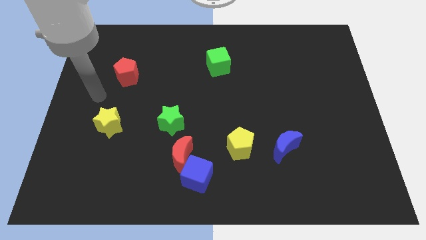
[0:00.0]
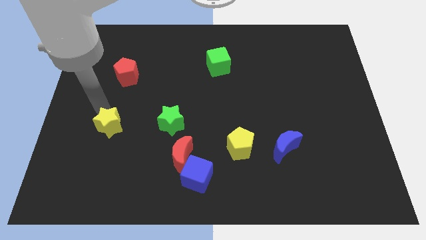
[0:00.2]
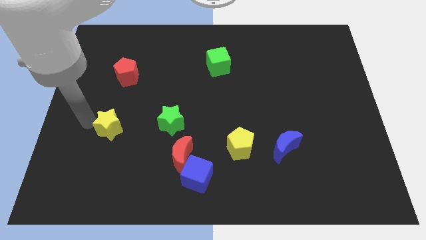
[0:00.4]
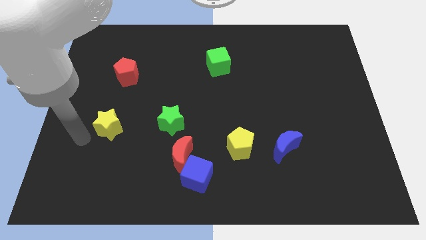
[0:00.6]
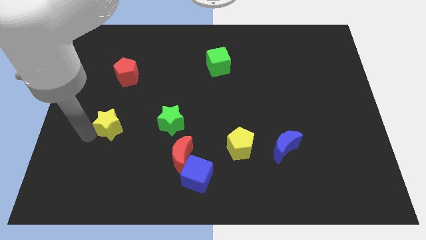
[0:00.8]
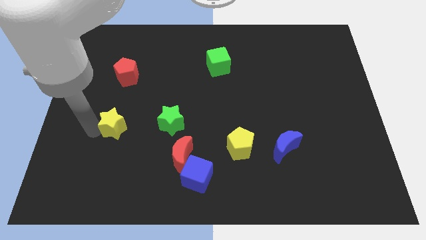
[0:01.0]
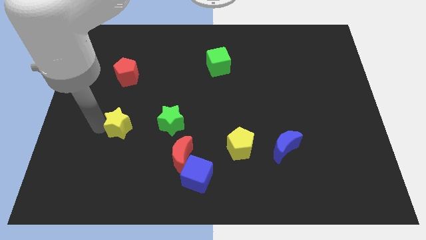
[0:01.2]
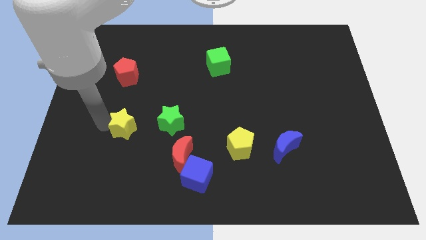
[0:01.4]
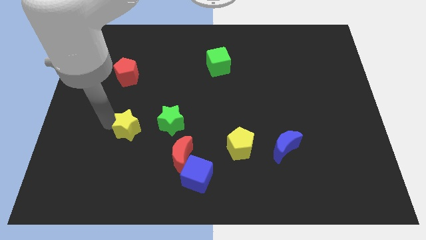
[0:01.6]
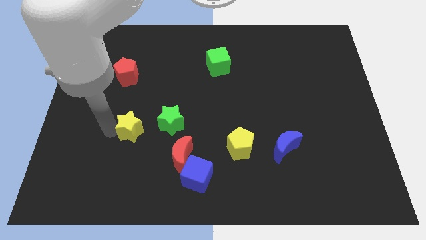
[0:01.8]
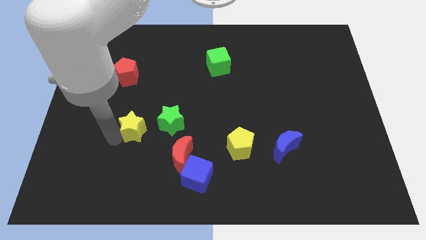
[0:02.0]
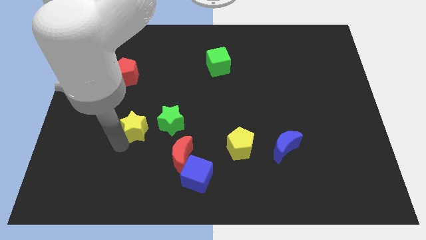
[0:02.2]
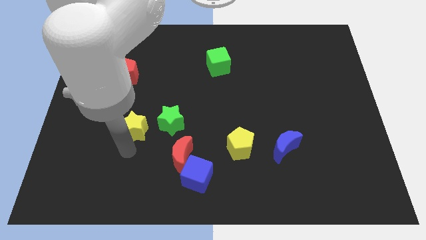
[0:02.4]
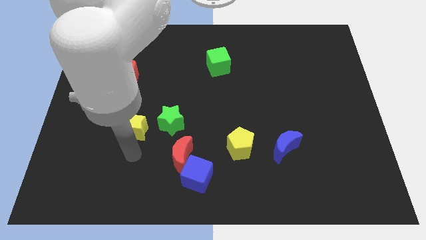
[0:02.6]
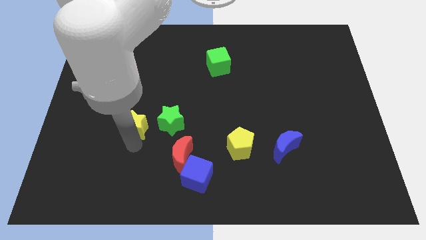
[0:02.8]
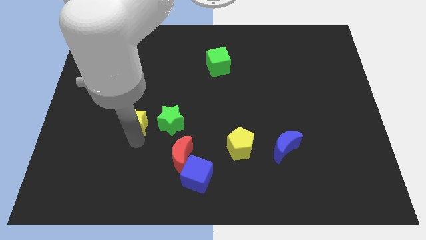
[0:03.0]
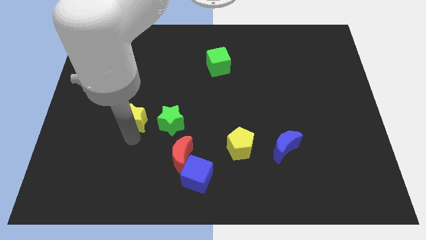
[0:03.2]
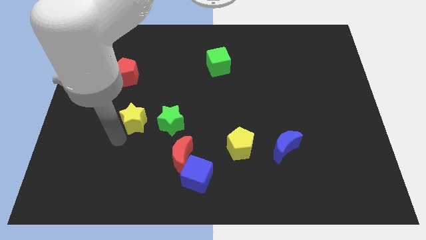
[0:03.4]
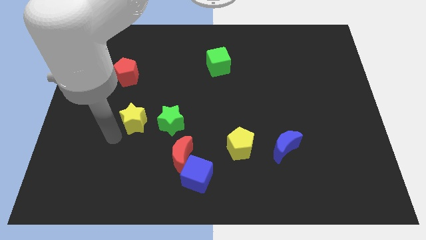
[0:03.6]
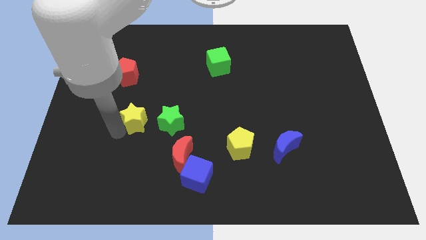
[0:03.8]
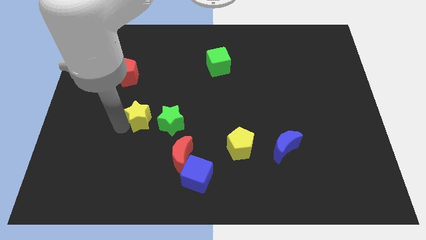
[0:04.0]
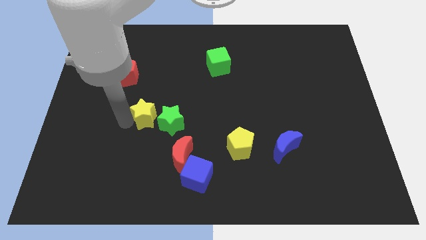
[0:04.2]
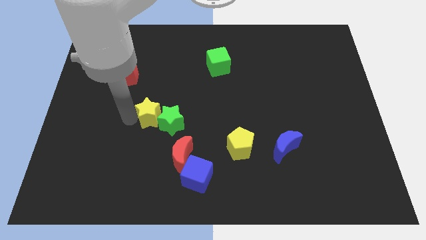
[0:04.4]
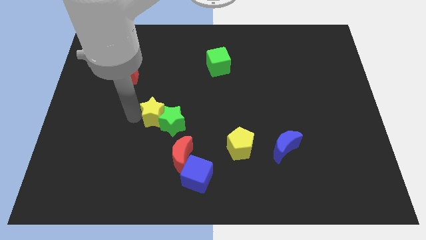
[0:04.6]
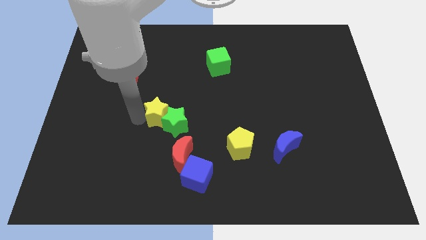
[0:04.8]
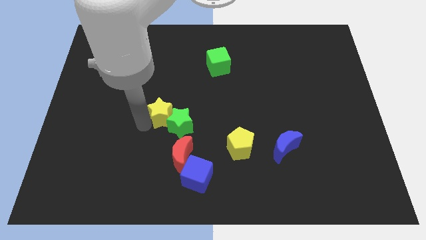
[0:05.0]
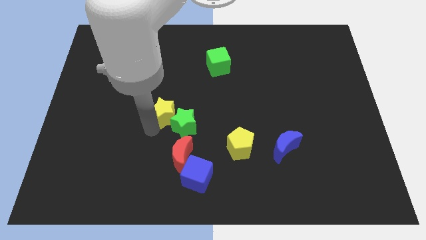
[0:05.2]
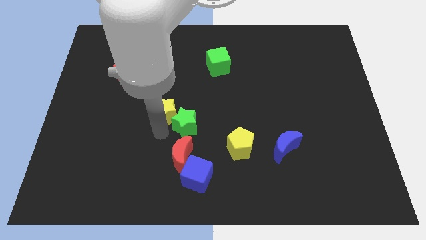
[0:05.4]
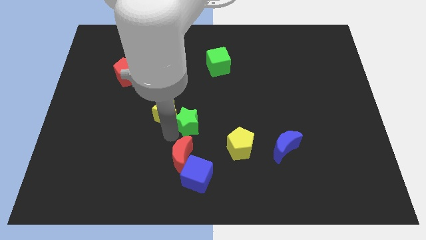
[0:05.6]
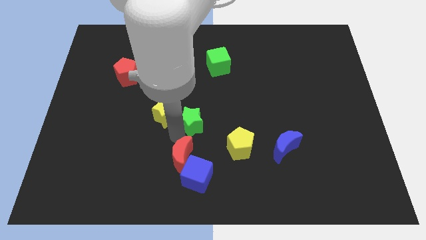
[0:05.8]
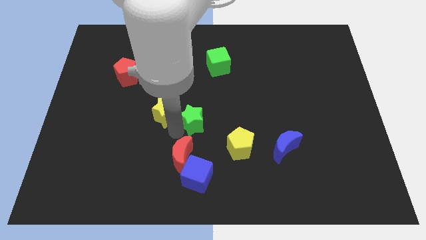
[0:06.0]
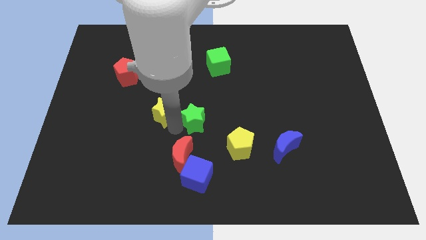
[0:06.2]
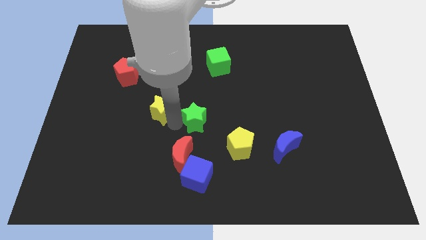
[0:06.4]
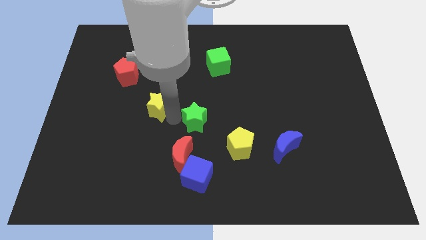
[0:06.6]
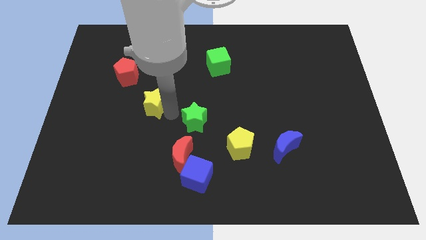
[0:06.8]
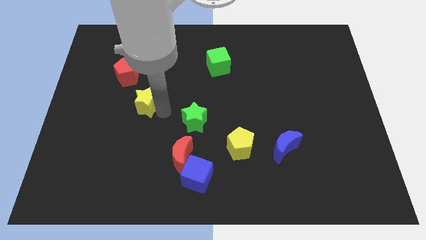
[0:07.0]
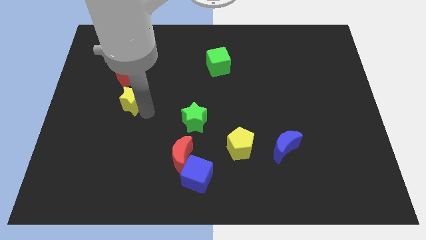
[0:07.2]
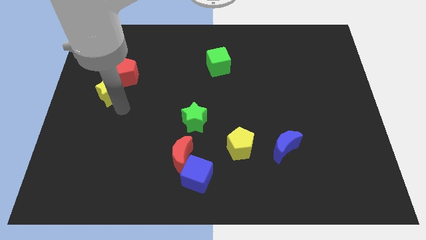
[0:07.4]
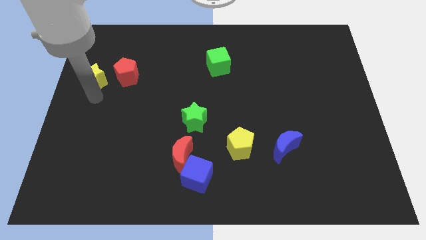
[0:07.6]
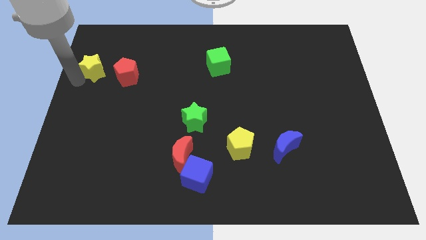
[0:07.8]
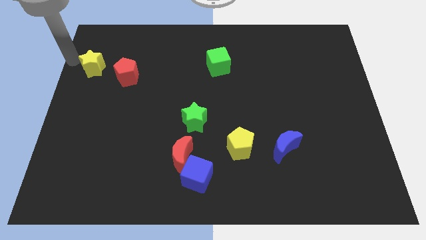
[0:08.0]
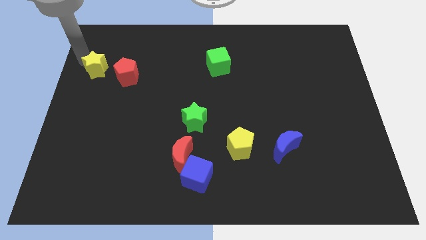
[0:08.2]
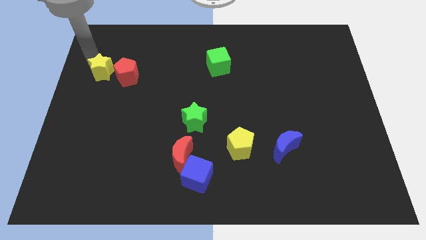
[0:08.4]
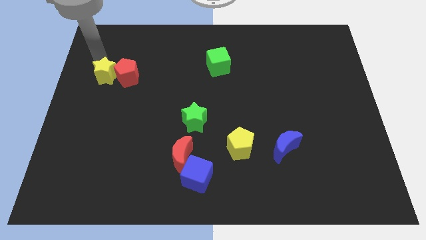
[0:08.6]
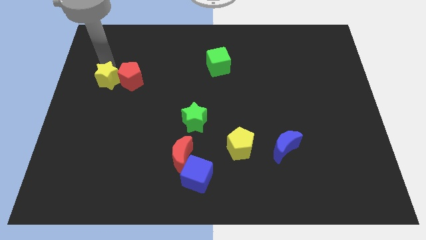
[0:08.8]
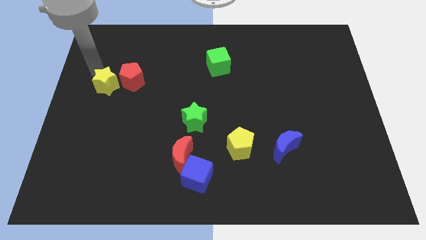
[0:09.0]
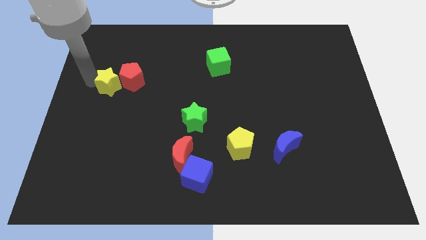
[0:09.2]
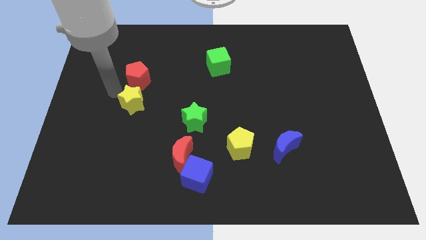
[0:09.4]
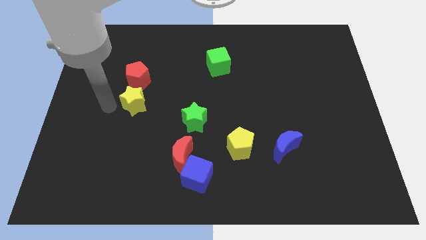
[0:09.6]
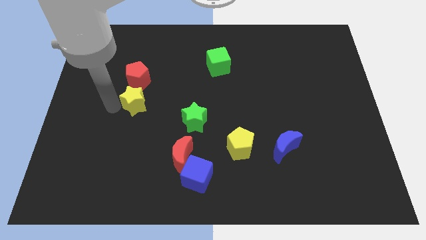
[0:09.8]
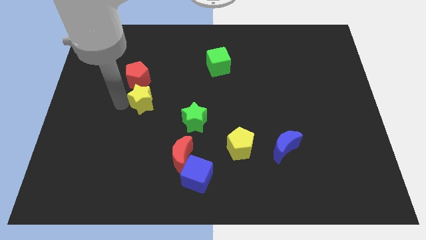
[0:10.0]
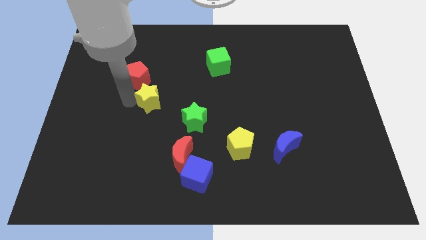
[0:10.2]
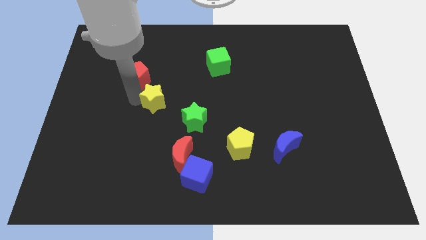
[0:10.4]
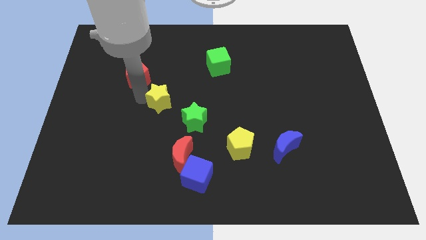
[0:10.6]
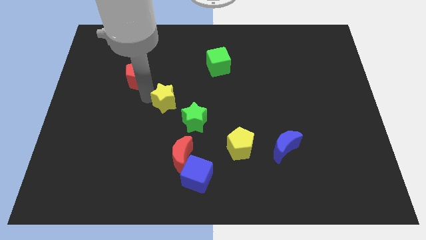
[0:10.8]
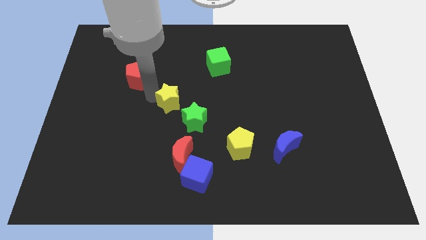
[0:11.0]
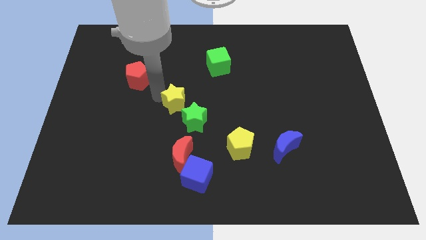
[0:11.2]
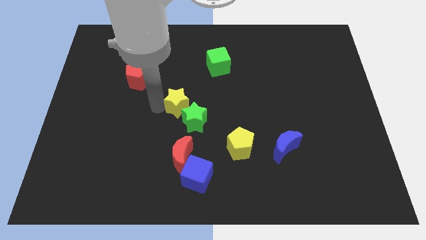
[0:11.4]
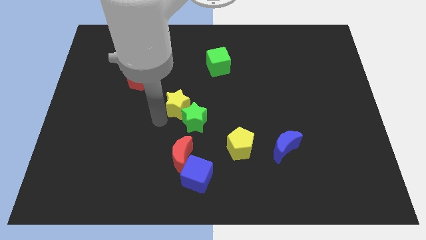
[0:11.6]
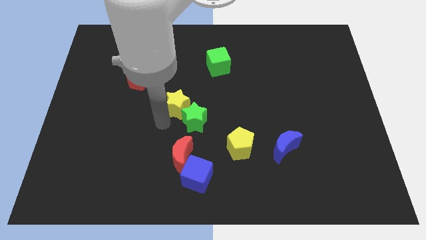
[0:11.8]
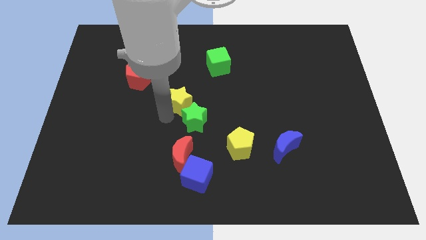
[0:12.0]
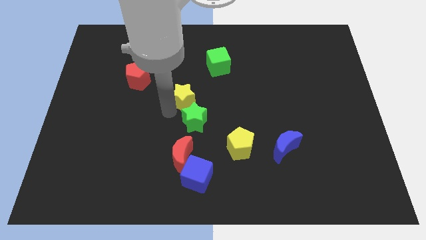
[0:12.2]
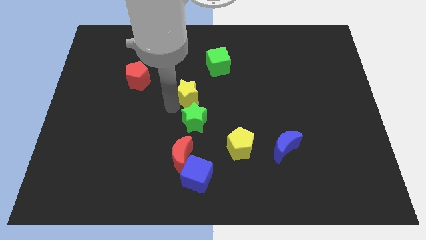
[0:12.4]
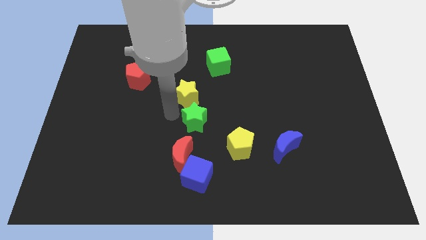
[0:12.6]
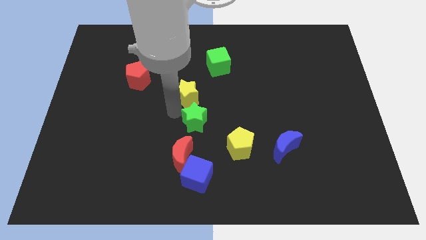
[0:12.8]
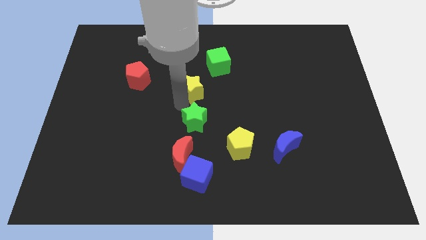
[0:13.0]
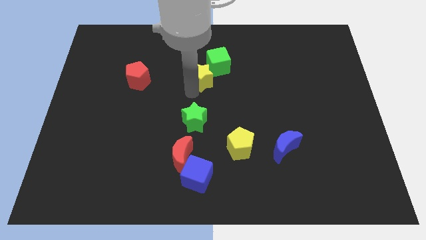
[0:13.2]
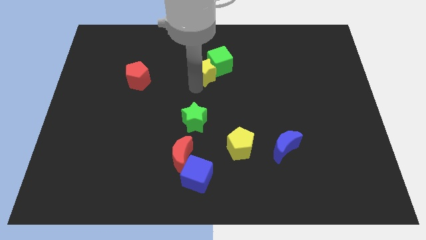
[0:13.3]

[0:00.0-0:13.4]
slide the yellow star next to the green cube

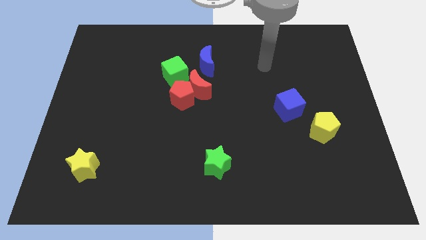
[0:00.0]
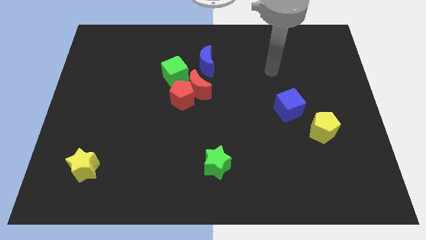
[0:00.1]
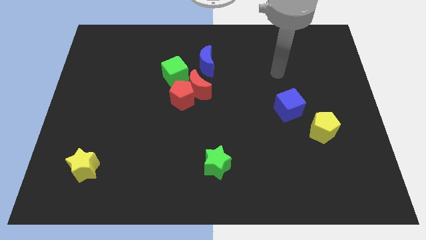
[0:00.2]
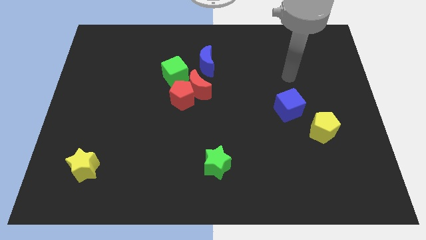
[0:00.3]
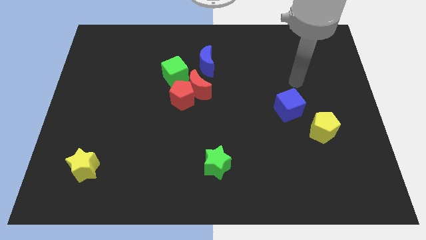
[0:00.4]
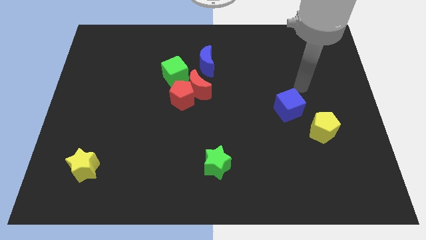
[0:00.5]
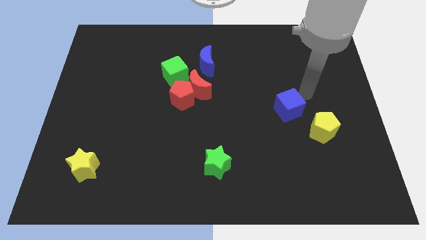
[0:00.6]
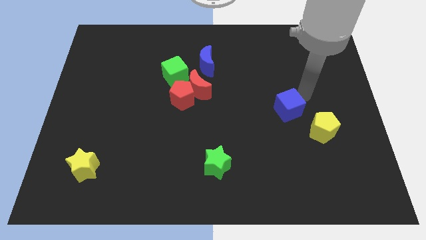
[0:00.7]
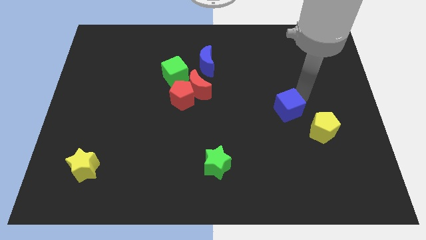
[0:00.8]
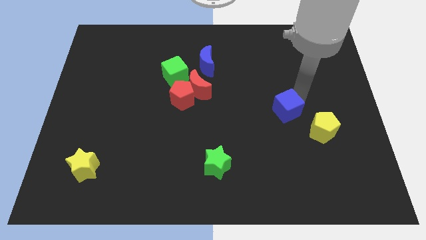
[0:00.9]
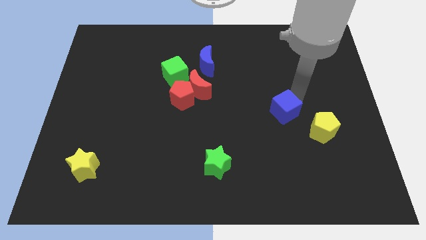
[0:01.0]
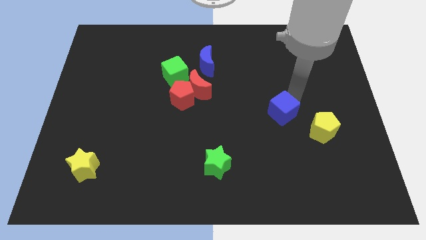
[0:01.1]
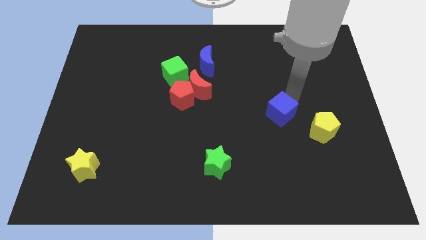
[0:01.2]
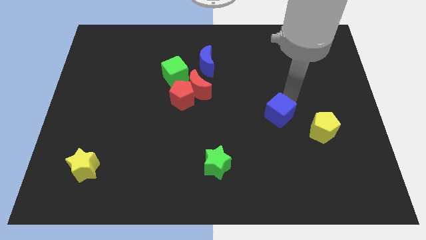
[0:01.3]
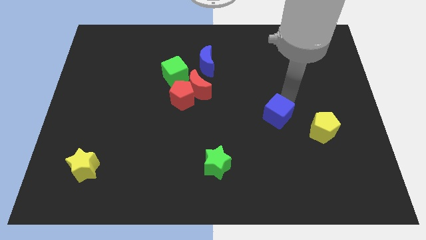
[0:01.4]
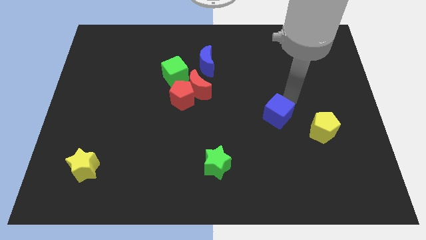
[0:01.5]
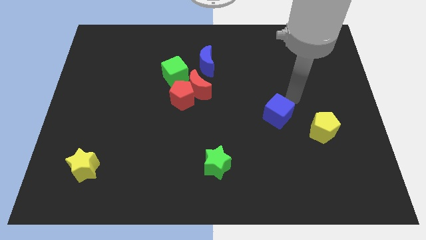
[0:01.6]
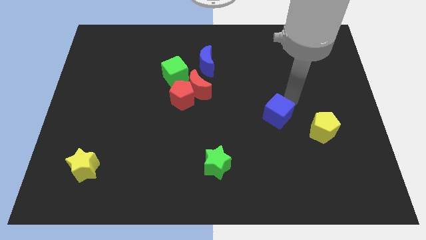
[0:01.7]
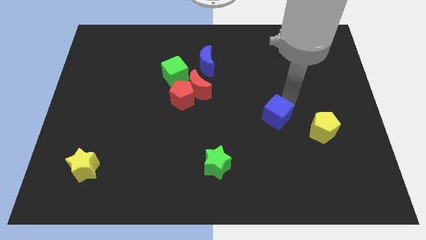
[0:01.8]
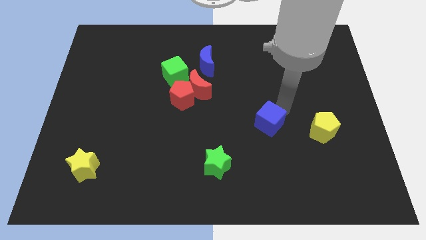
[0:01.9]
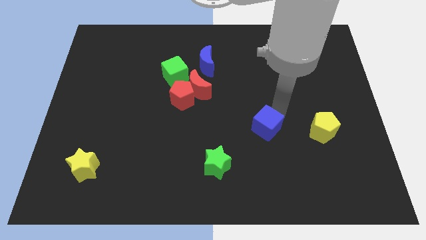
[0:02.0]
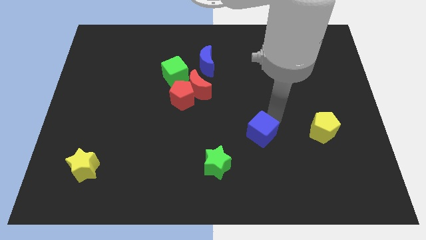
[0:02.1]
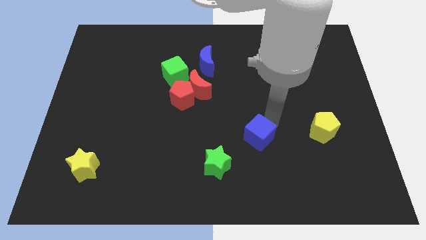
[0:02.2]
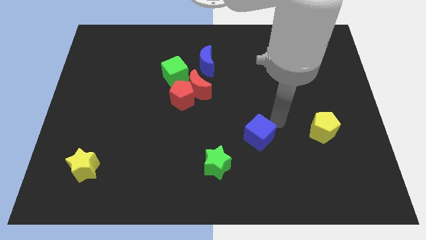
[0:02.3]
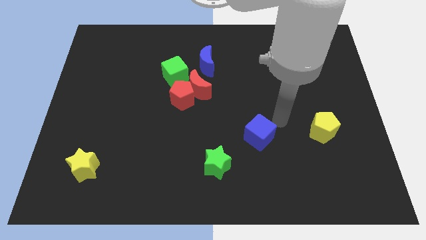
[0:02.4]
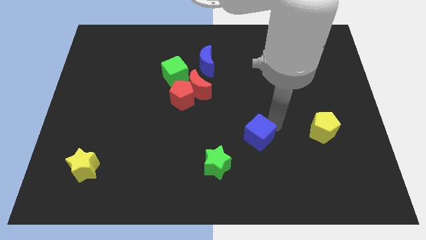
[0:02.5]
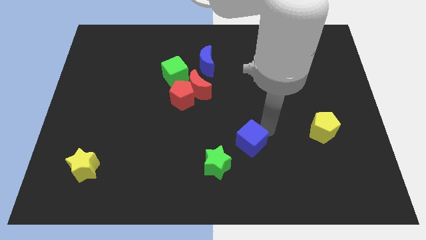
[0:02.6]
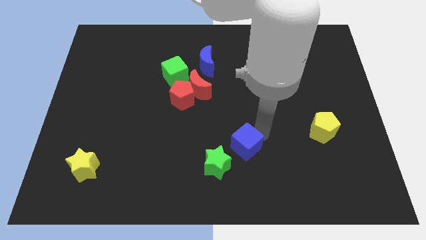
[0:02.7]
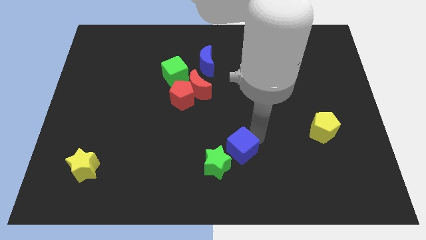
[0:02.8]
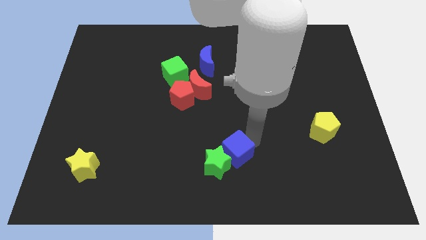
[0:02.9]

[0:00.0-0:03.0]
move the blue cube close to the green star
